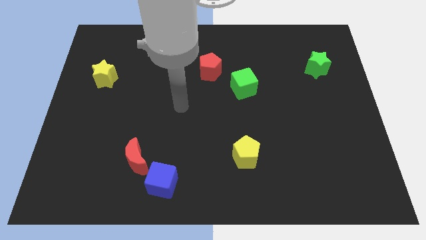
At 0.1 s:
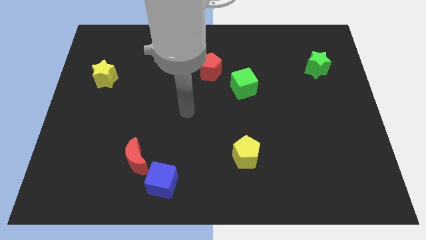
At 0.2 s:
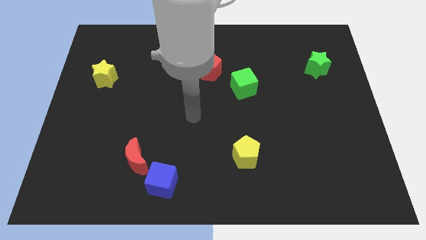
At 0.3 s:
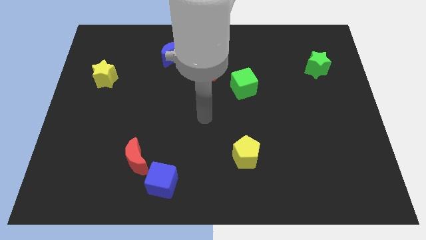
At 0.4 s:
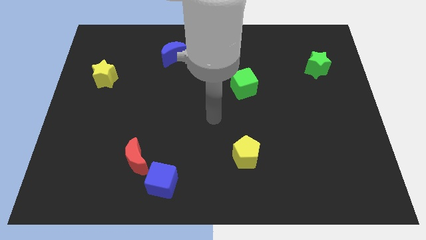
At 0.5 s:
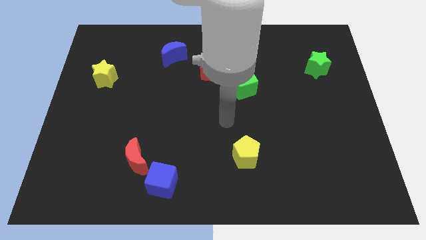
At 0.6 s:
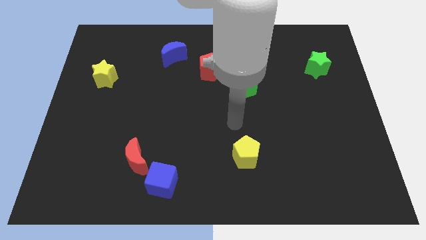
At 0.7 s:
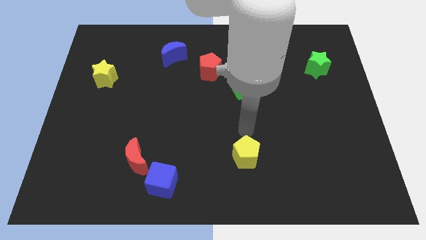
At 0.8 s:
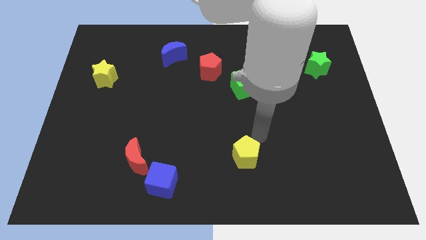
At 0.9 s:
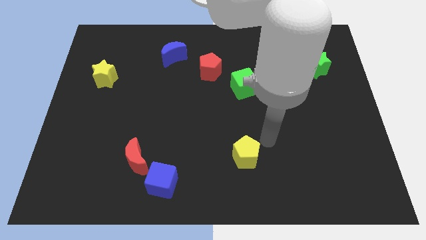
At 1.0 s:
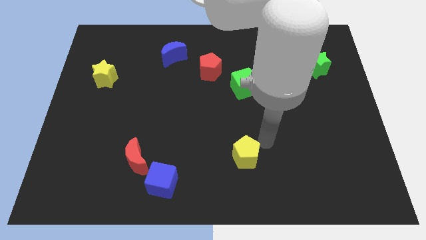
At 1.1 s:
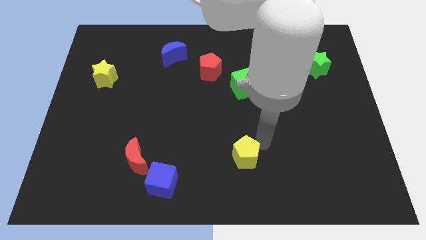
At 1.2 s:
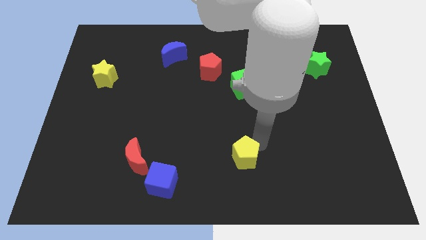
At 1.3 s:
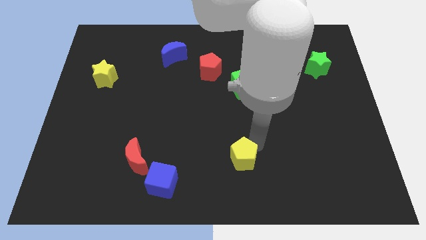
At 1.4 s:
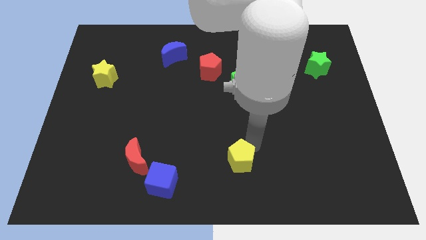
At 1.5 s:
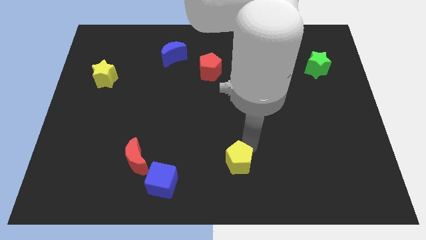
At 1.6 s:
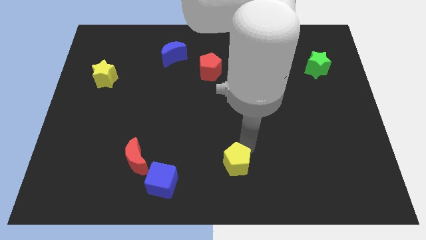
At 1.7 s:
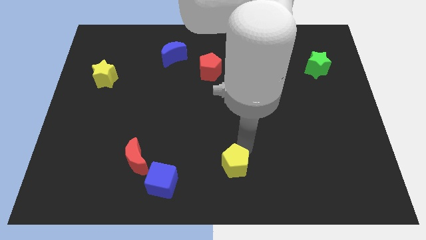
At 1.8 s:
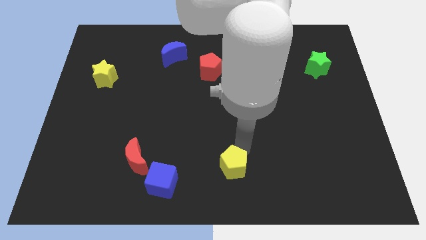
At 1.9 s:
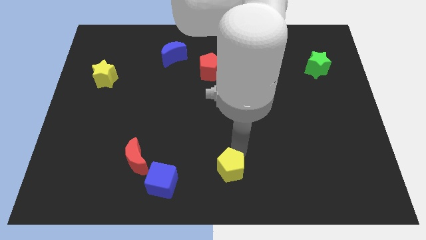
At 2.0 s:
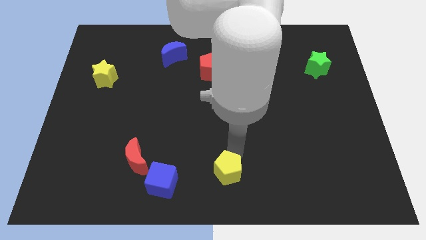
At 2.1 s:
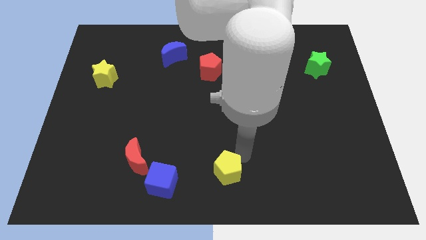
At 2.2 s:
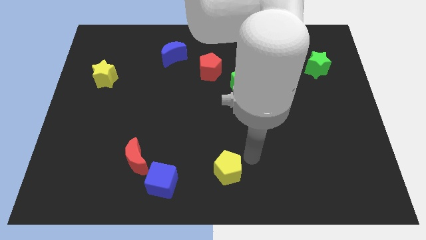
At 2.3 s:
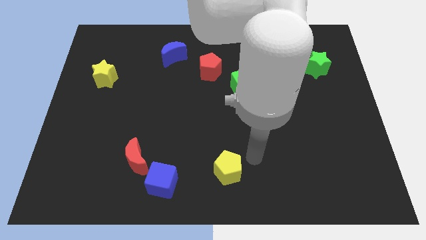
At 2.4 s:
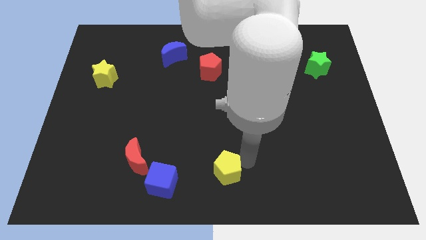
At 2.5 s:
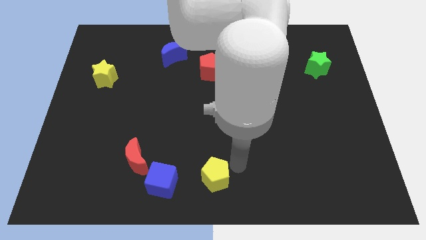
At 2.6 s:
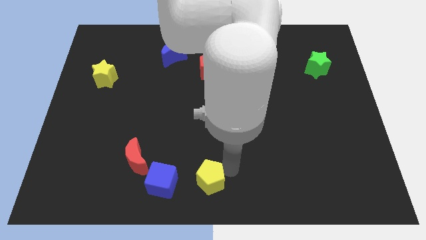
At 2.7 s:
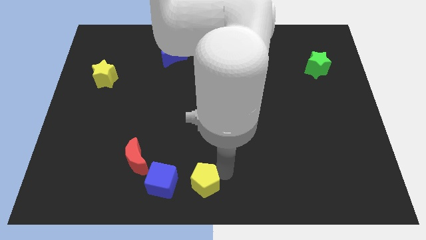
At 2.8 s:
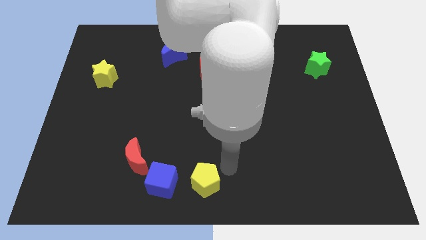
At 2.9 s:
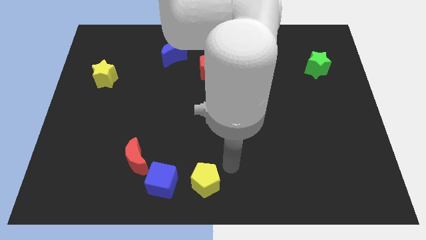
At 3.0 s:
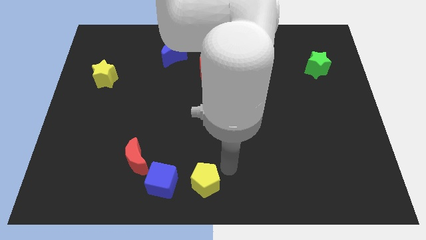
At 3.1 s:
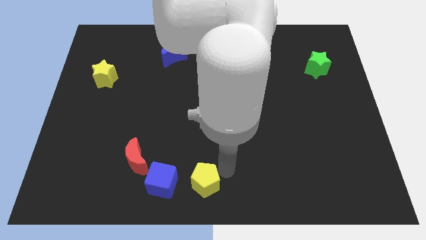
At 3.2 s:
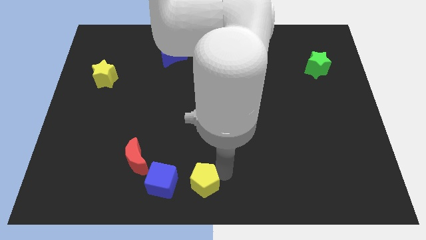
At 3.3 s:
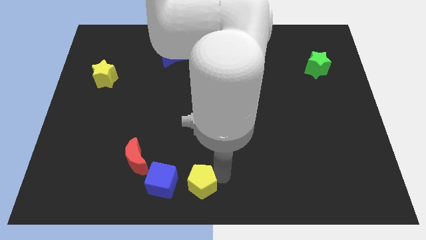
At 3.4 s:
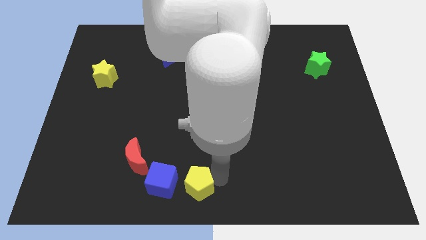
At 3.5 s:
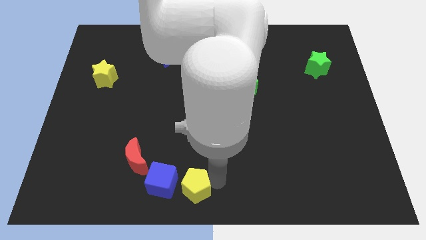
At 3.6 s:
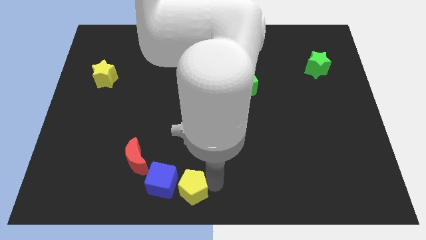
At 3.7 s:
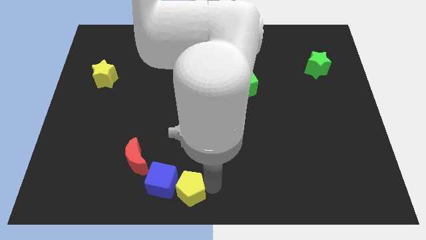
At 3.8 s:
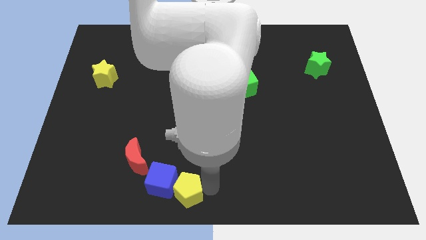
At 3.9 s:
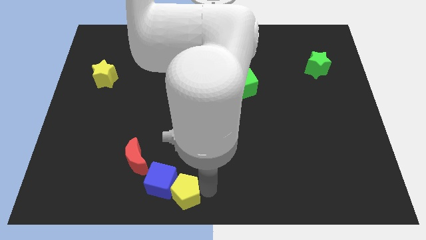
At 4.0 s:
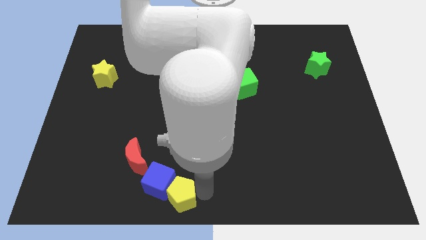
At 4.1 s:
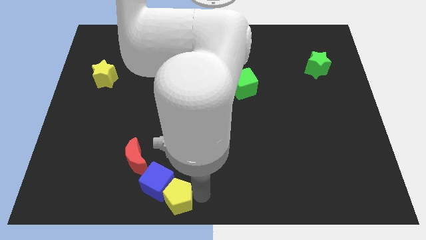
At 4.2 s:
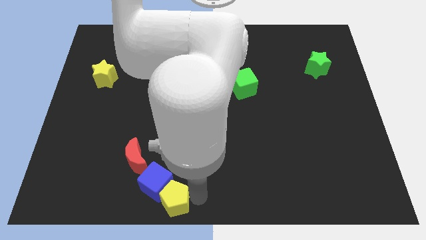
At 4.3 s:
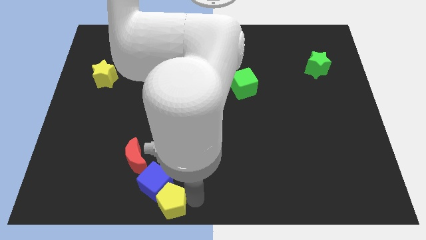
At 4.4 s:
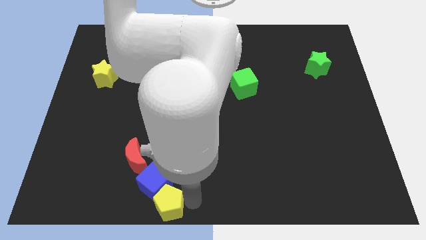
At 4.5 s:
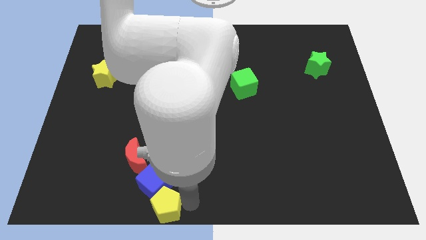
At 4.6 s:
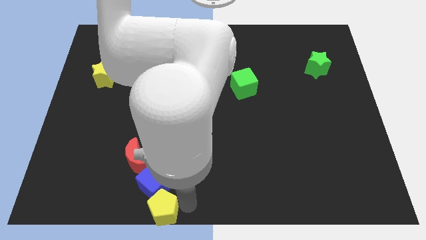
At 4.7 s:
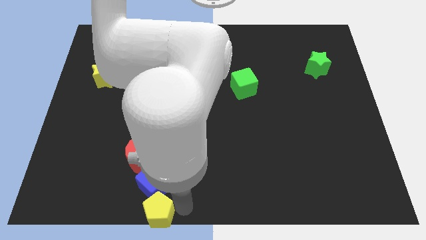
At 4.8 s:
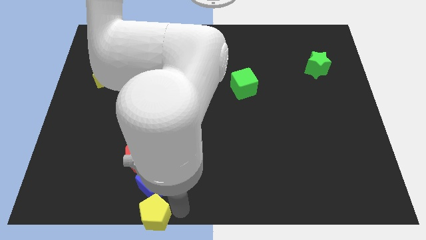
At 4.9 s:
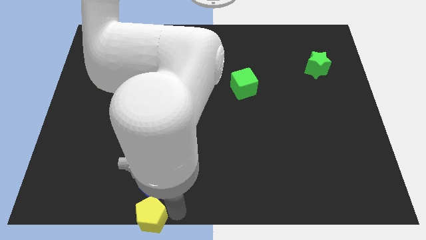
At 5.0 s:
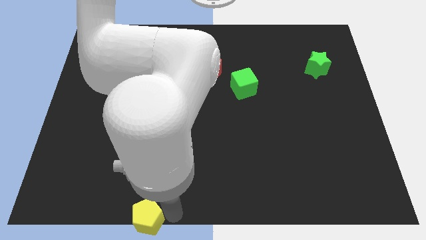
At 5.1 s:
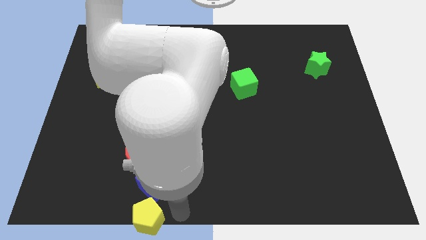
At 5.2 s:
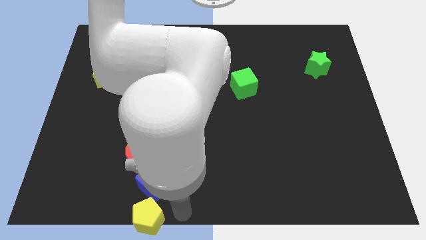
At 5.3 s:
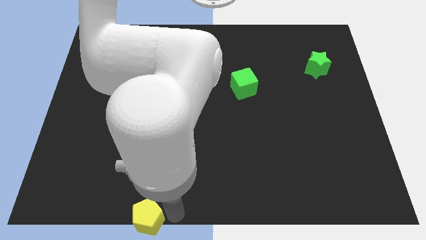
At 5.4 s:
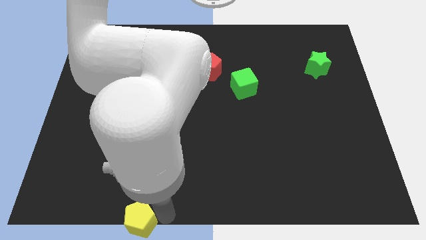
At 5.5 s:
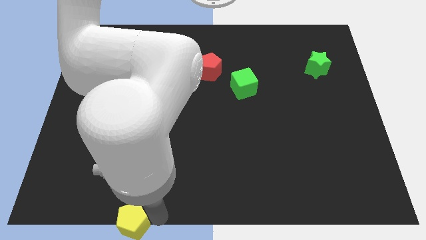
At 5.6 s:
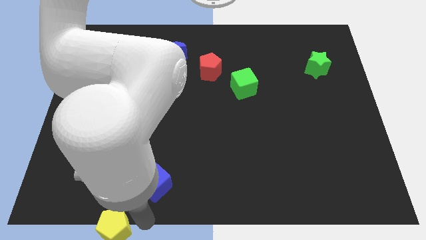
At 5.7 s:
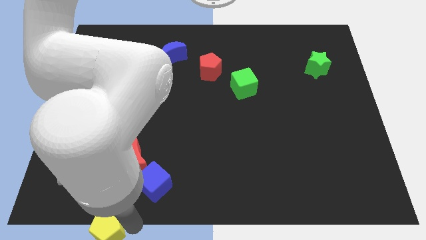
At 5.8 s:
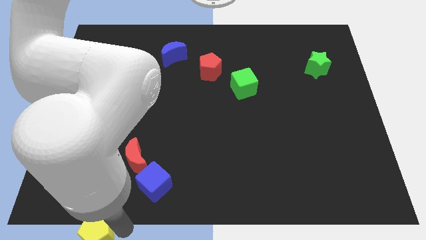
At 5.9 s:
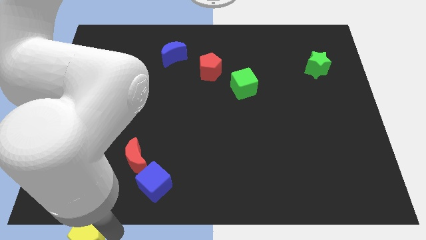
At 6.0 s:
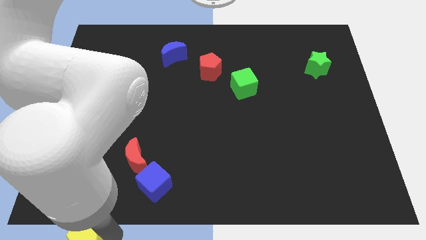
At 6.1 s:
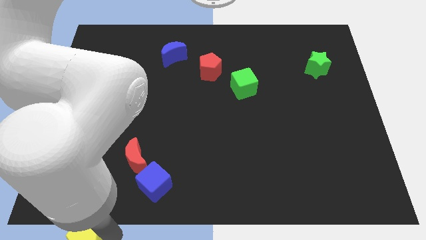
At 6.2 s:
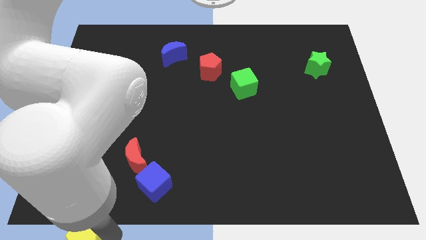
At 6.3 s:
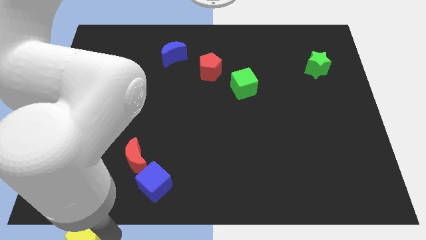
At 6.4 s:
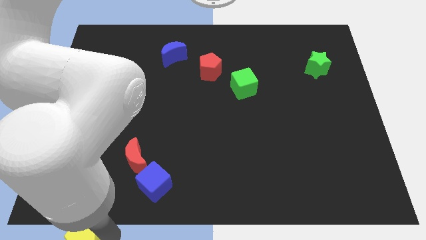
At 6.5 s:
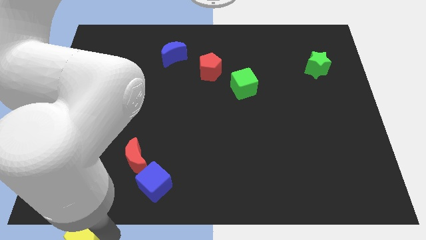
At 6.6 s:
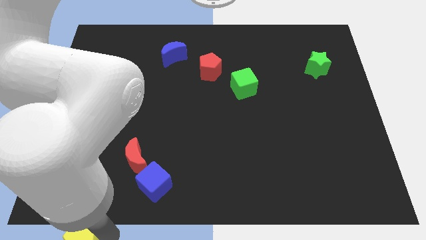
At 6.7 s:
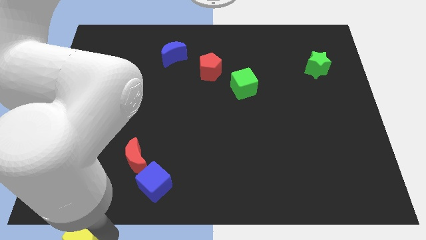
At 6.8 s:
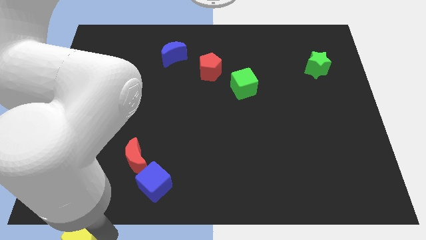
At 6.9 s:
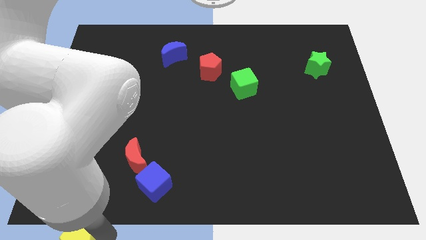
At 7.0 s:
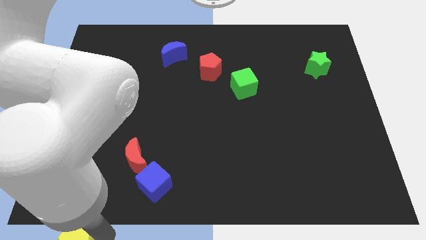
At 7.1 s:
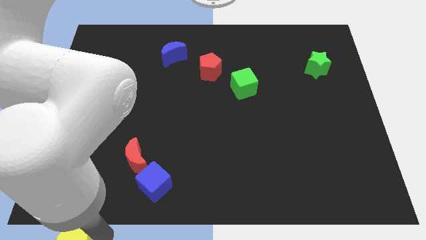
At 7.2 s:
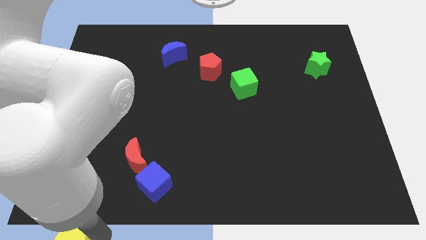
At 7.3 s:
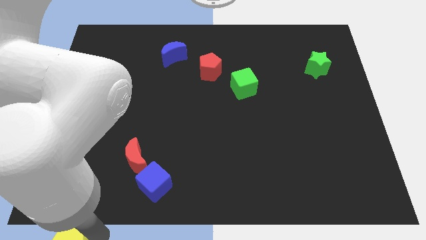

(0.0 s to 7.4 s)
push the yellow pentagon to the lower left corner
